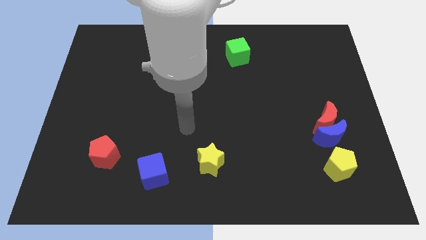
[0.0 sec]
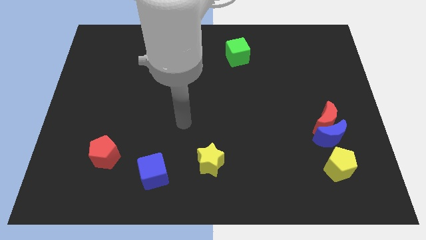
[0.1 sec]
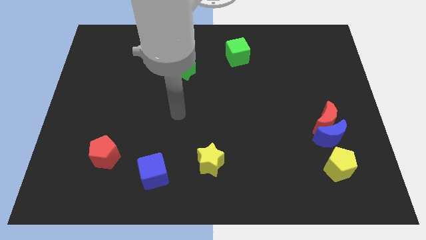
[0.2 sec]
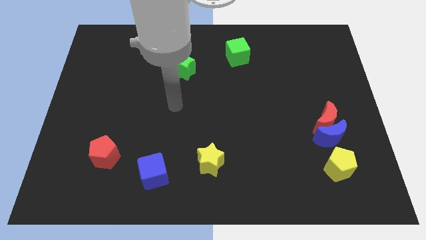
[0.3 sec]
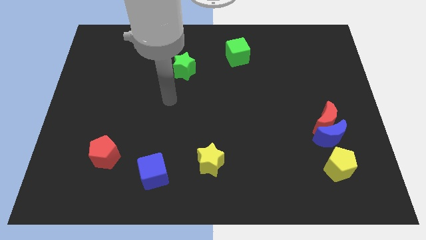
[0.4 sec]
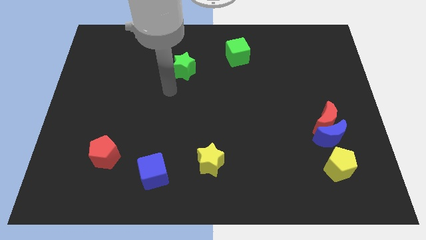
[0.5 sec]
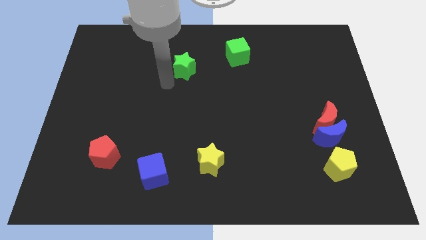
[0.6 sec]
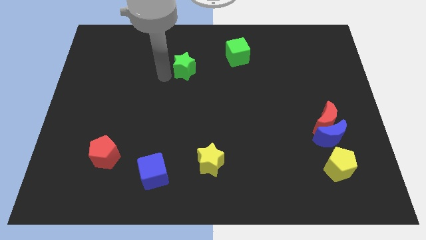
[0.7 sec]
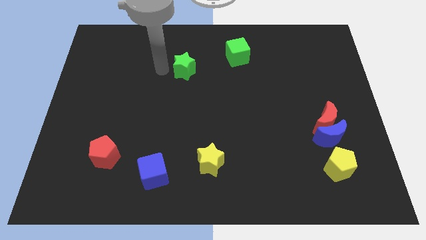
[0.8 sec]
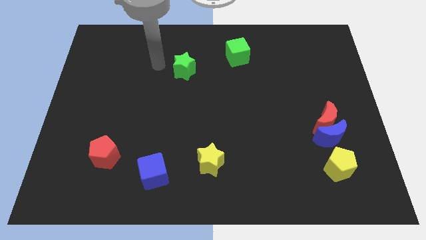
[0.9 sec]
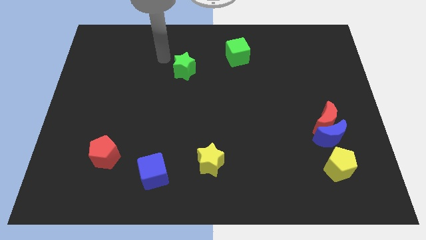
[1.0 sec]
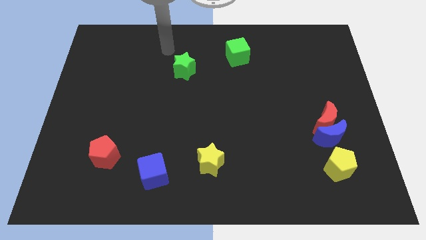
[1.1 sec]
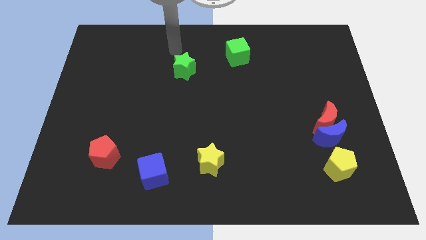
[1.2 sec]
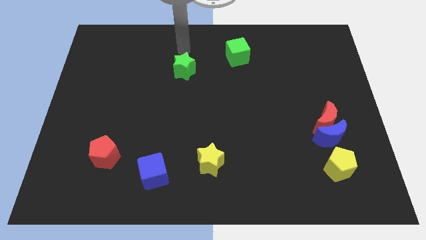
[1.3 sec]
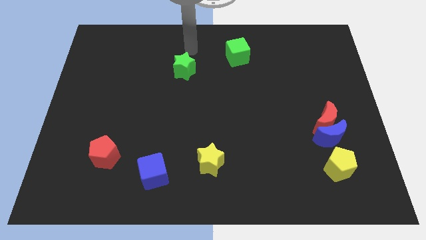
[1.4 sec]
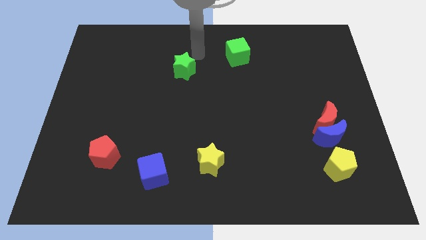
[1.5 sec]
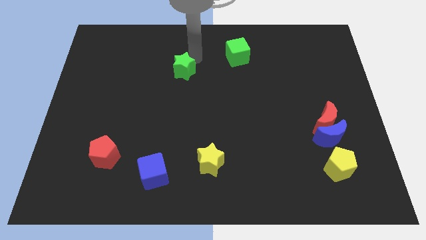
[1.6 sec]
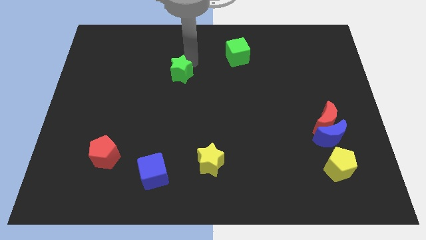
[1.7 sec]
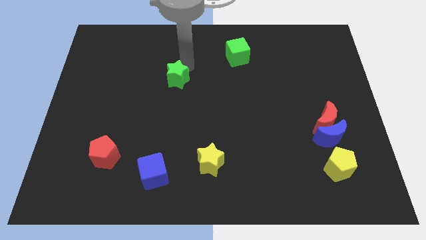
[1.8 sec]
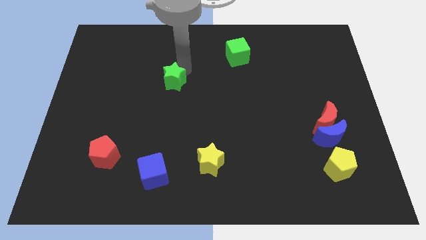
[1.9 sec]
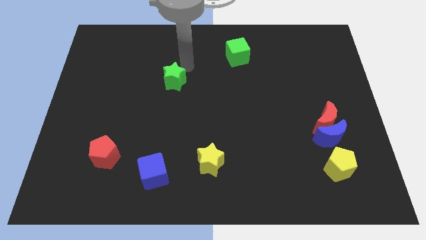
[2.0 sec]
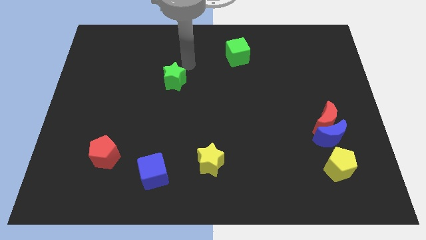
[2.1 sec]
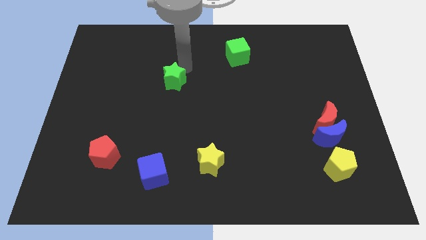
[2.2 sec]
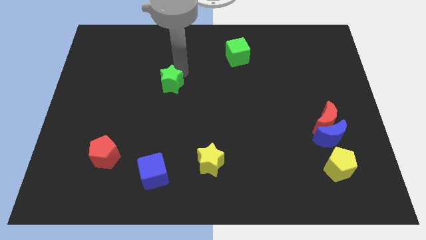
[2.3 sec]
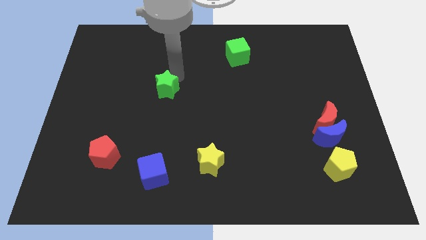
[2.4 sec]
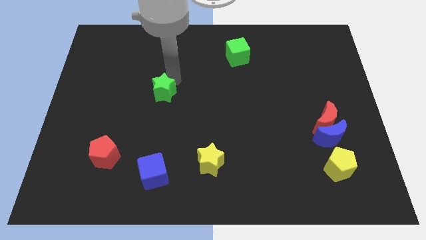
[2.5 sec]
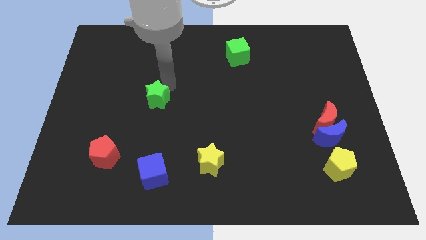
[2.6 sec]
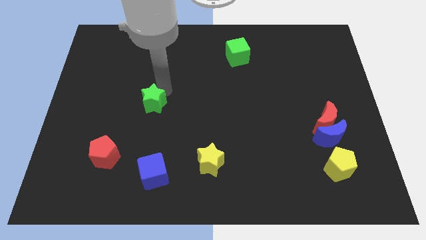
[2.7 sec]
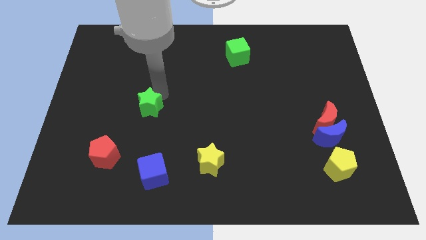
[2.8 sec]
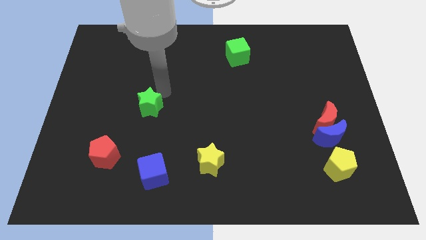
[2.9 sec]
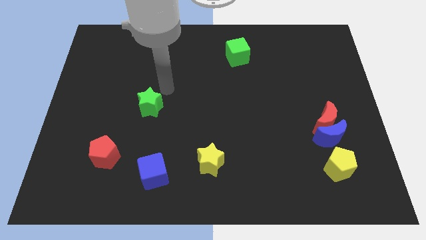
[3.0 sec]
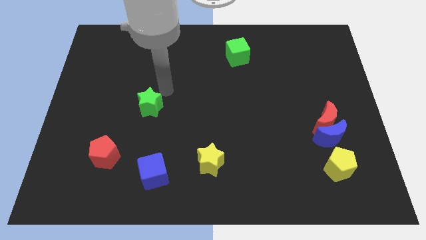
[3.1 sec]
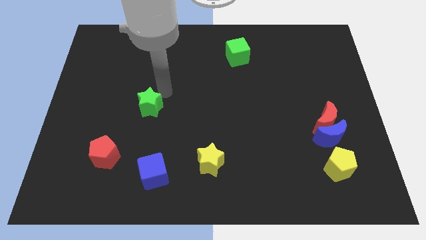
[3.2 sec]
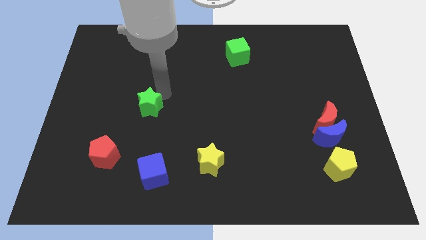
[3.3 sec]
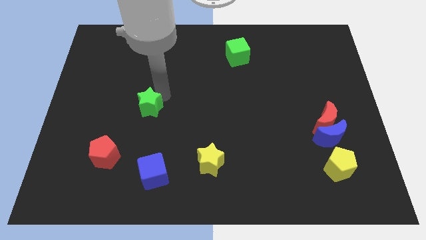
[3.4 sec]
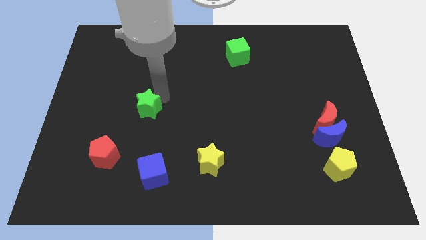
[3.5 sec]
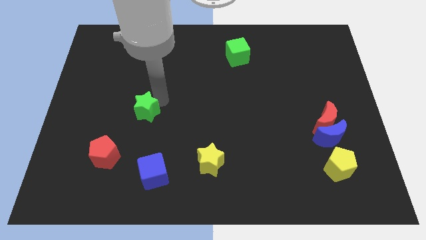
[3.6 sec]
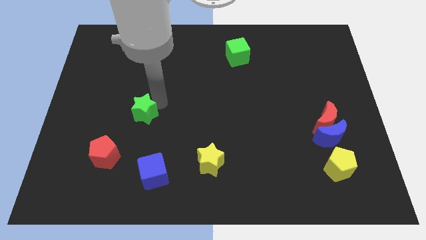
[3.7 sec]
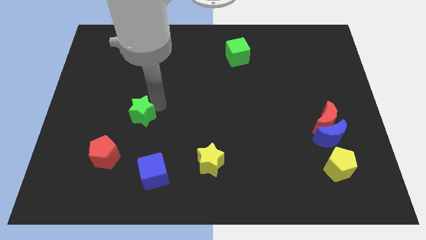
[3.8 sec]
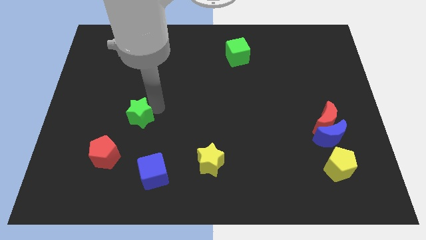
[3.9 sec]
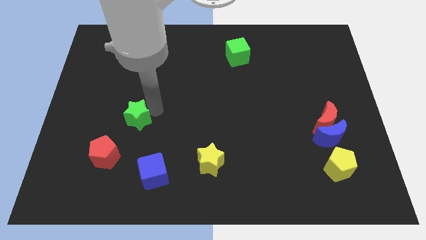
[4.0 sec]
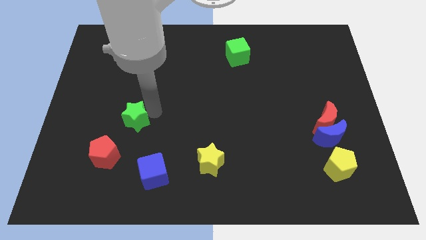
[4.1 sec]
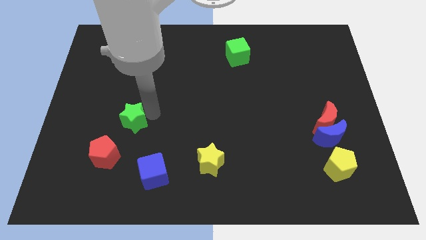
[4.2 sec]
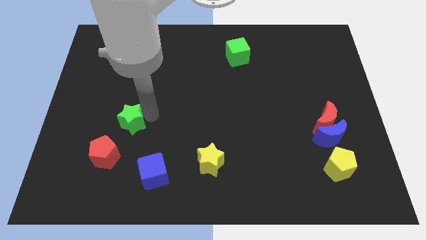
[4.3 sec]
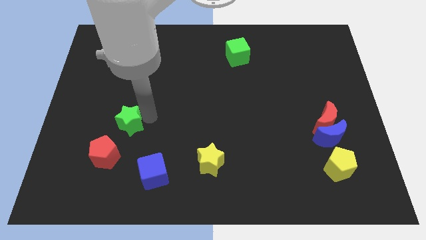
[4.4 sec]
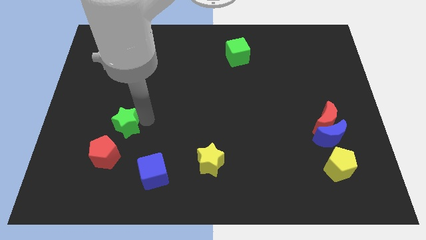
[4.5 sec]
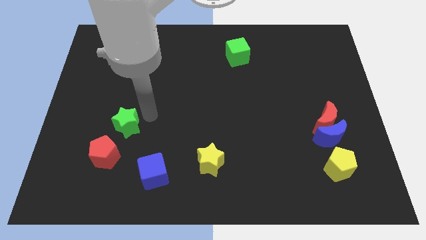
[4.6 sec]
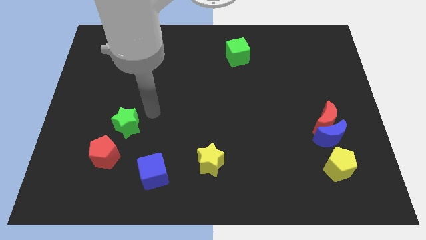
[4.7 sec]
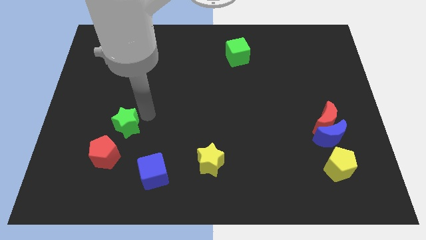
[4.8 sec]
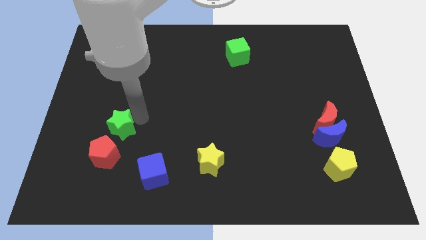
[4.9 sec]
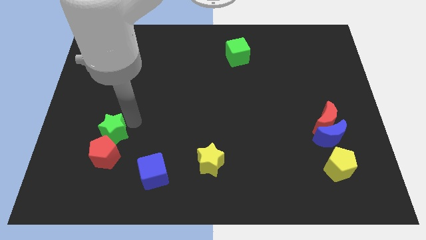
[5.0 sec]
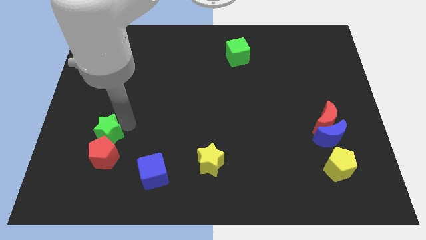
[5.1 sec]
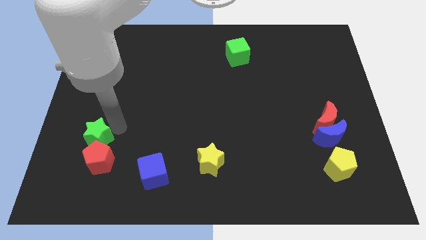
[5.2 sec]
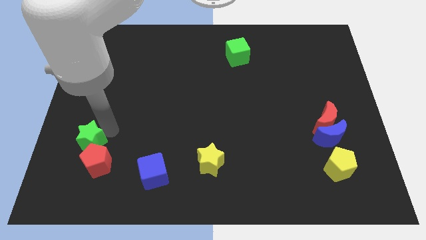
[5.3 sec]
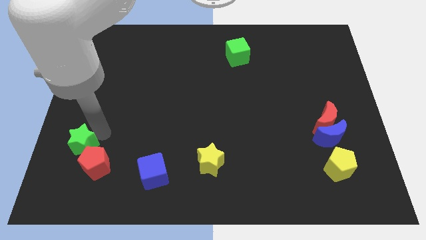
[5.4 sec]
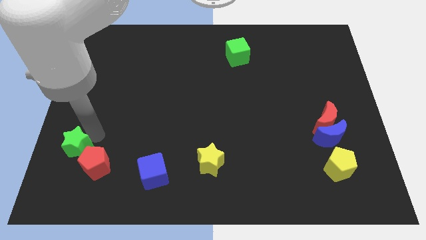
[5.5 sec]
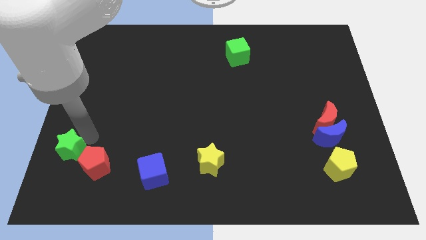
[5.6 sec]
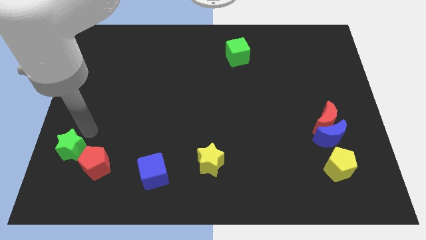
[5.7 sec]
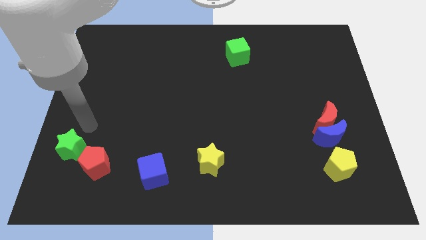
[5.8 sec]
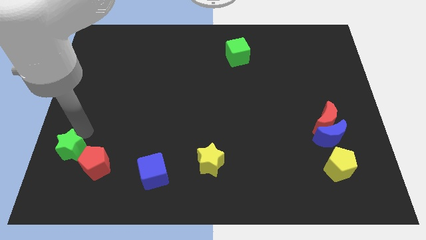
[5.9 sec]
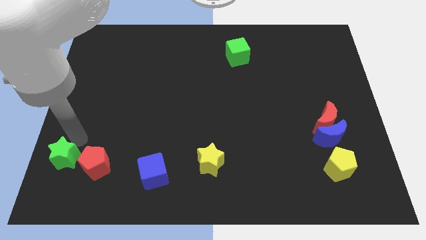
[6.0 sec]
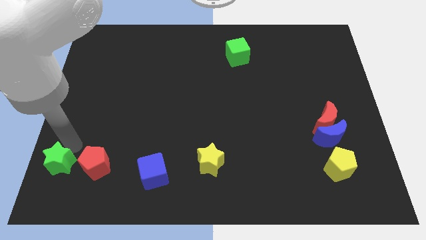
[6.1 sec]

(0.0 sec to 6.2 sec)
put the green star to the bottom left corner

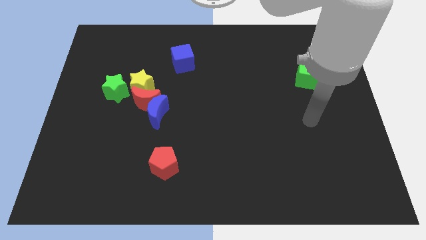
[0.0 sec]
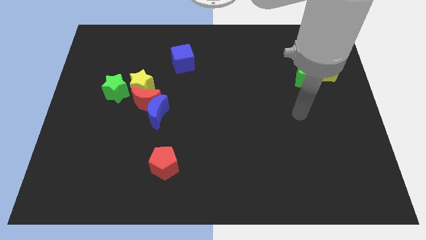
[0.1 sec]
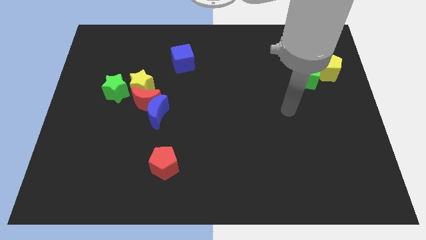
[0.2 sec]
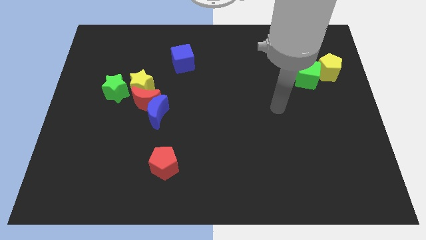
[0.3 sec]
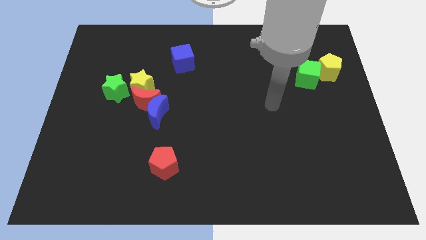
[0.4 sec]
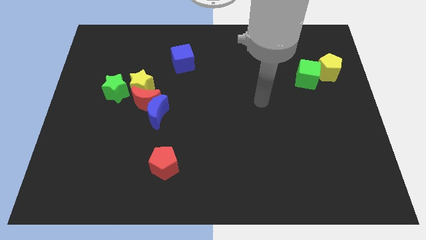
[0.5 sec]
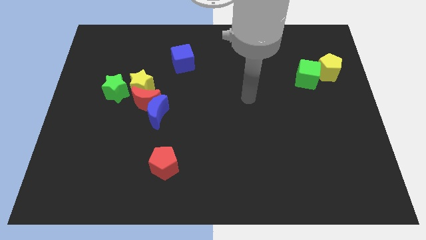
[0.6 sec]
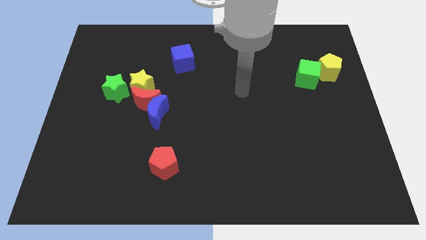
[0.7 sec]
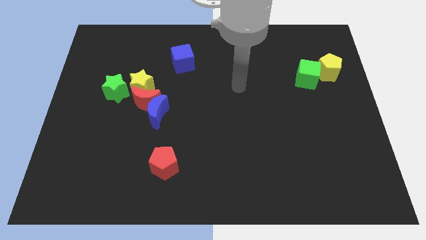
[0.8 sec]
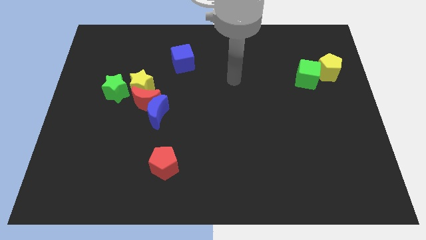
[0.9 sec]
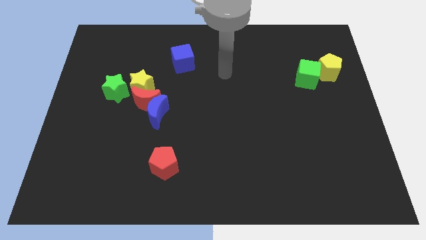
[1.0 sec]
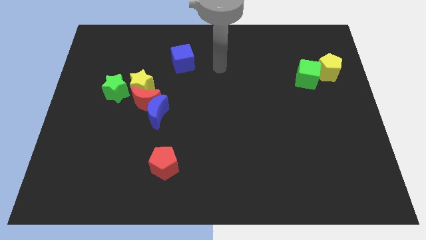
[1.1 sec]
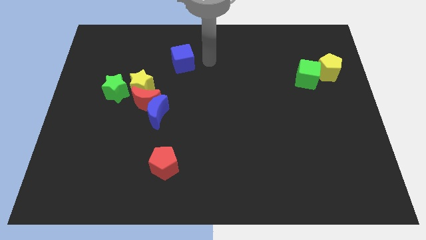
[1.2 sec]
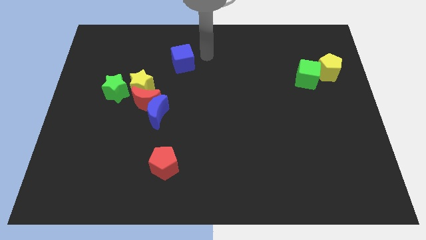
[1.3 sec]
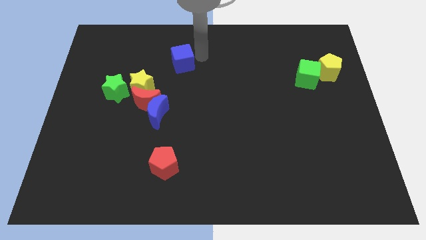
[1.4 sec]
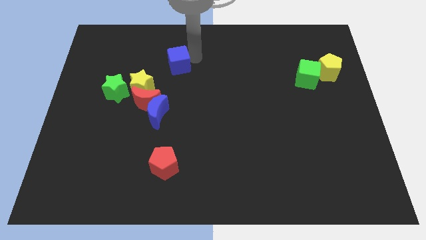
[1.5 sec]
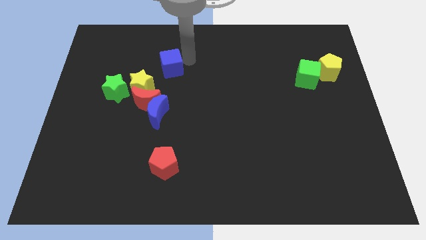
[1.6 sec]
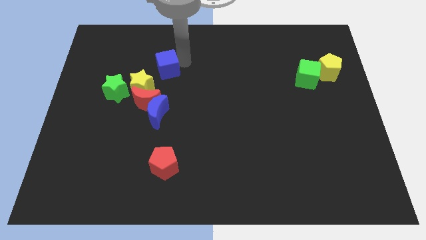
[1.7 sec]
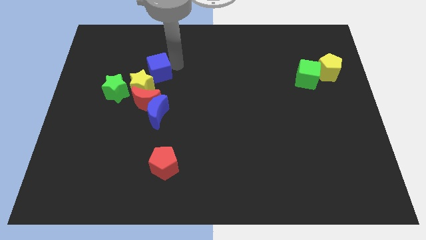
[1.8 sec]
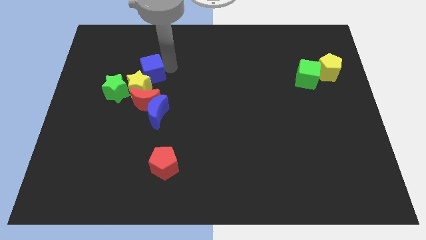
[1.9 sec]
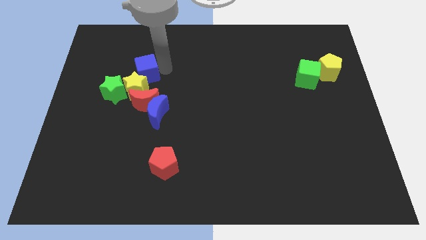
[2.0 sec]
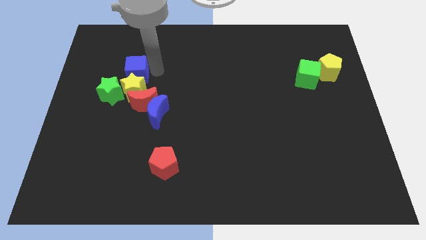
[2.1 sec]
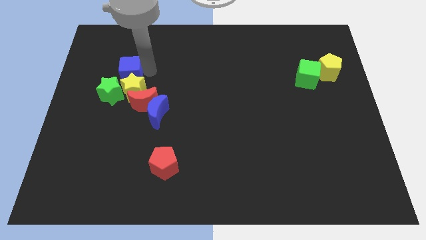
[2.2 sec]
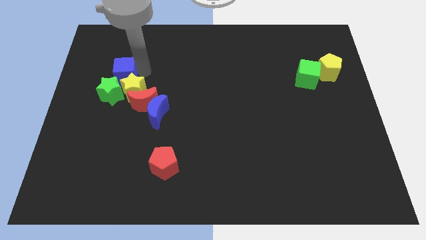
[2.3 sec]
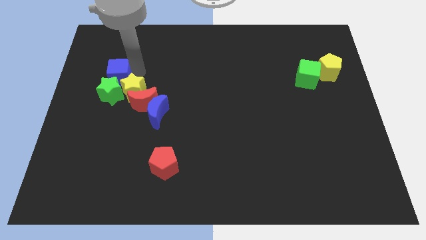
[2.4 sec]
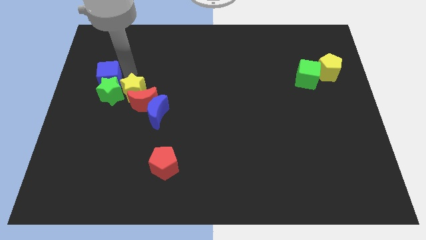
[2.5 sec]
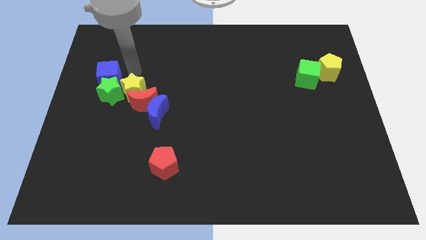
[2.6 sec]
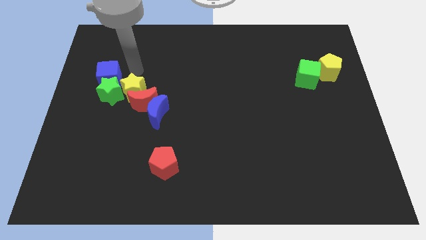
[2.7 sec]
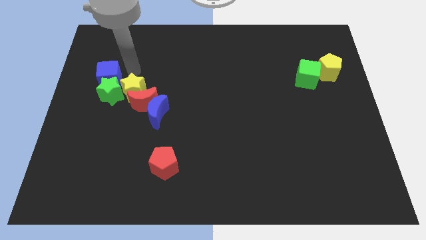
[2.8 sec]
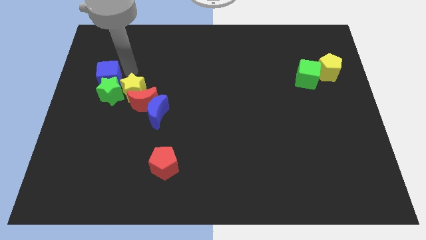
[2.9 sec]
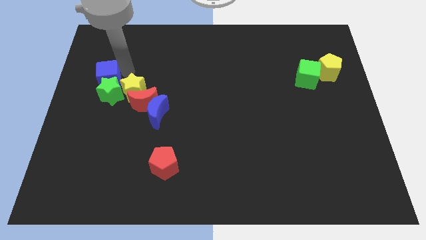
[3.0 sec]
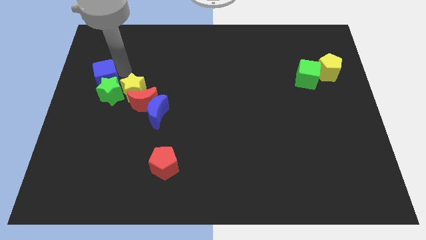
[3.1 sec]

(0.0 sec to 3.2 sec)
move the blue cube to the left side
